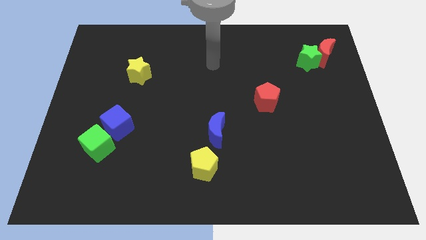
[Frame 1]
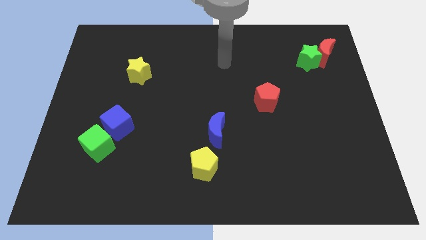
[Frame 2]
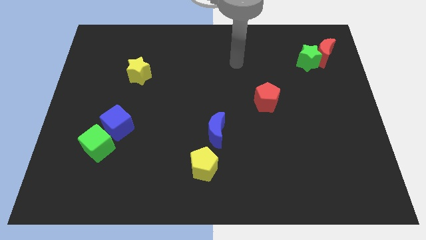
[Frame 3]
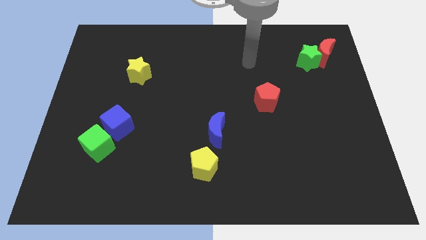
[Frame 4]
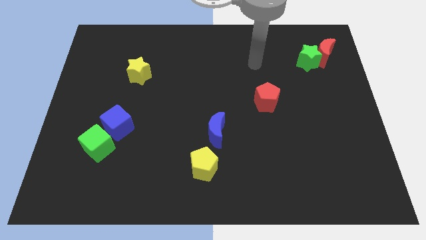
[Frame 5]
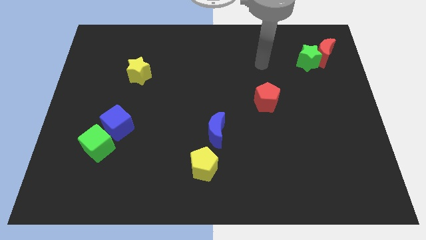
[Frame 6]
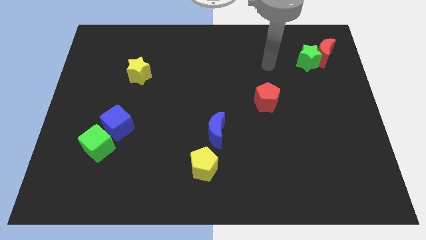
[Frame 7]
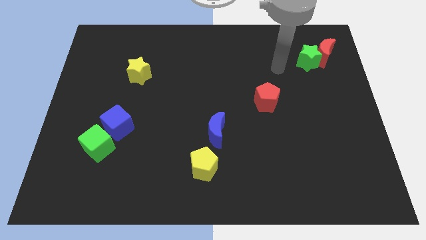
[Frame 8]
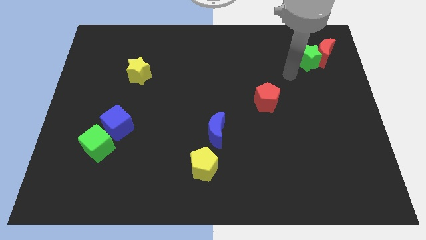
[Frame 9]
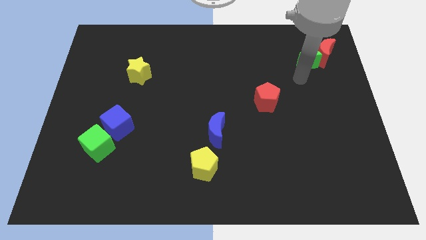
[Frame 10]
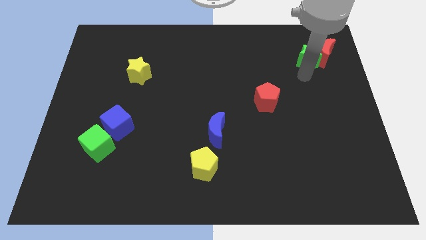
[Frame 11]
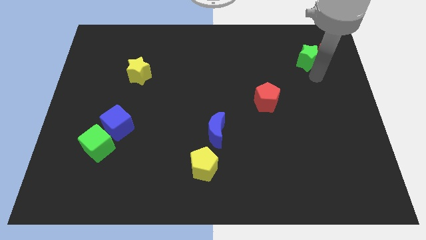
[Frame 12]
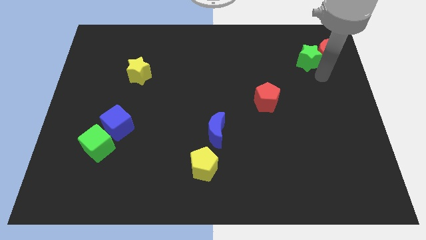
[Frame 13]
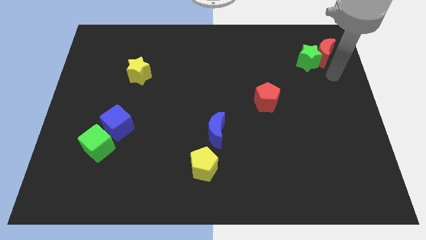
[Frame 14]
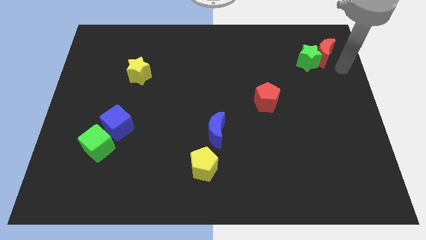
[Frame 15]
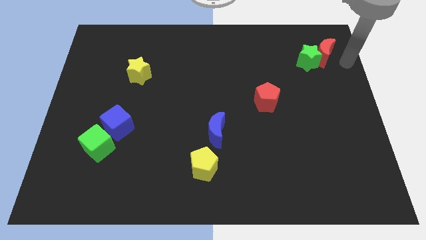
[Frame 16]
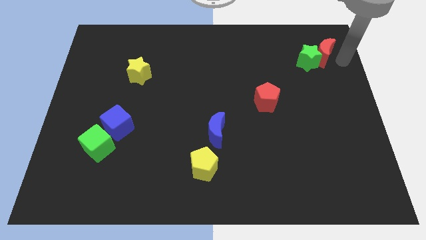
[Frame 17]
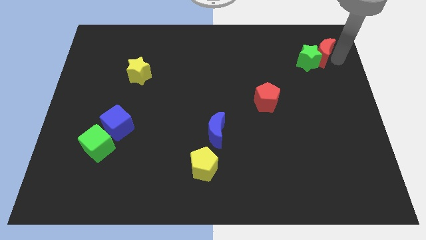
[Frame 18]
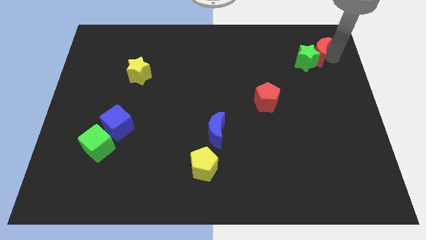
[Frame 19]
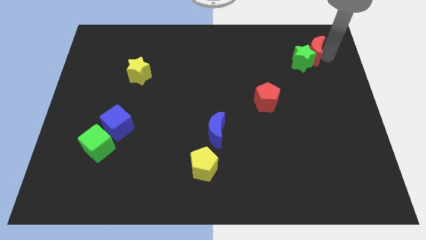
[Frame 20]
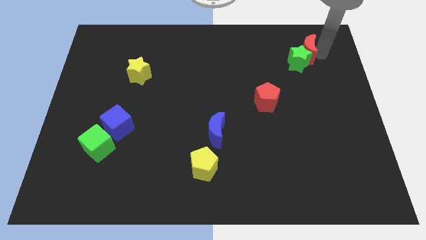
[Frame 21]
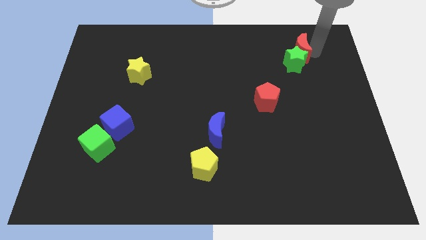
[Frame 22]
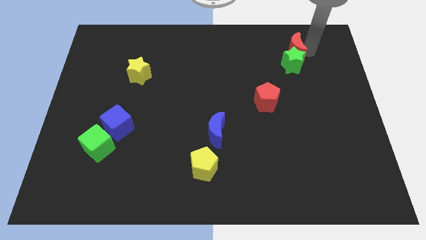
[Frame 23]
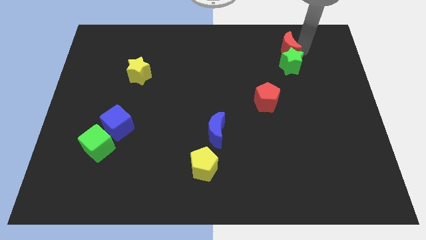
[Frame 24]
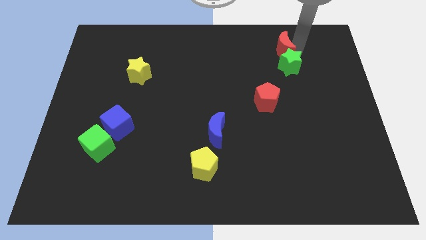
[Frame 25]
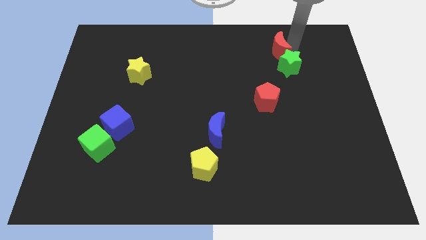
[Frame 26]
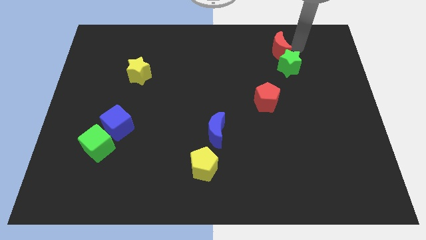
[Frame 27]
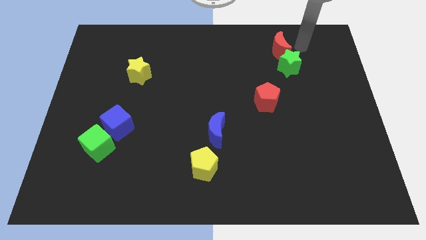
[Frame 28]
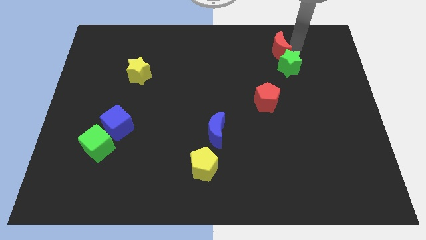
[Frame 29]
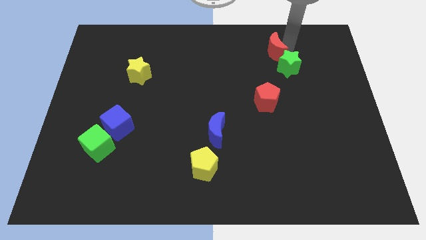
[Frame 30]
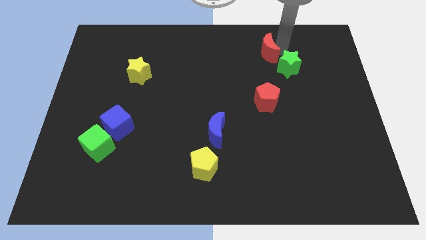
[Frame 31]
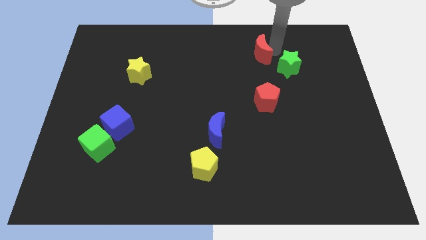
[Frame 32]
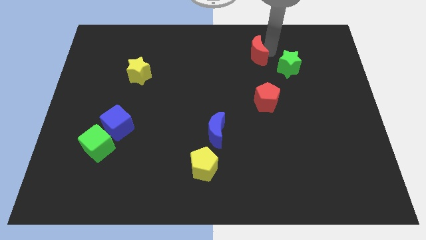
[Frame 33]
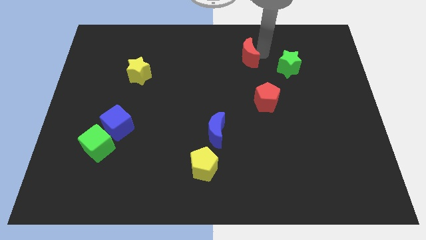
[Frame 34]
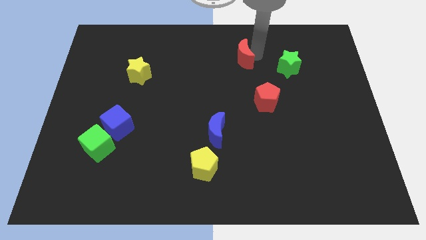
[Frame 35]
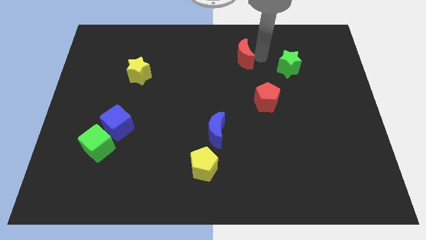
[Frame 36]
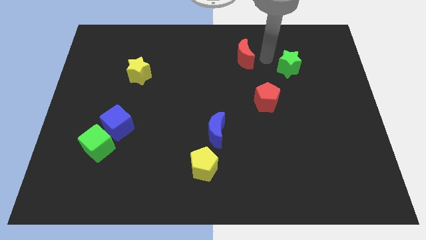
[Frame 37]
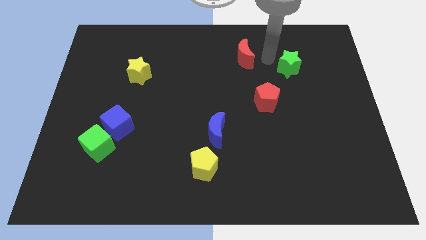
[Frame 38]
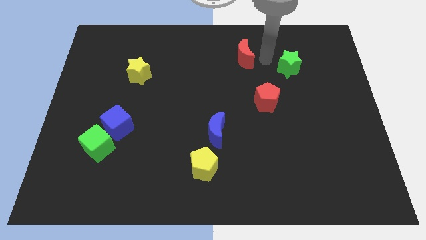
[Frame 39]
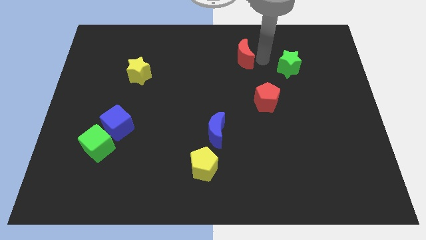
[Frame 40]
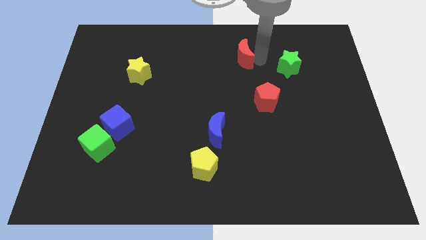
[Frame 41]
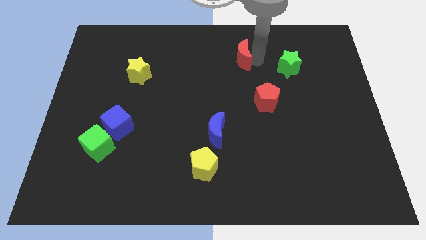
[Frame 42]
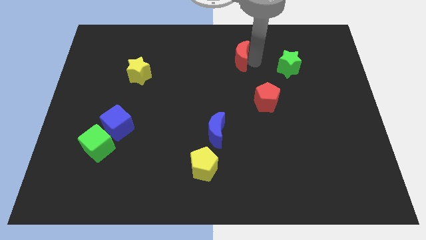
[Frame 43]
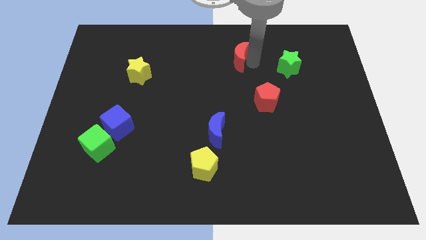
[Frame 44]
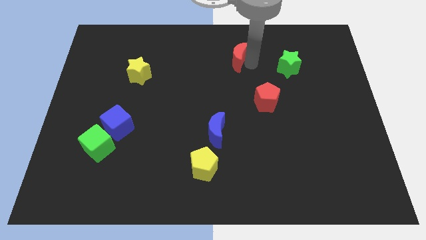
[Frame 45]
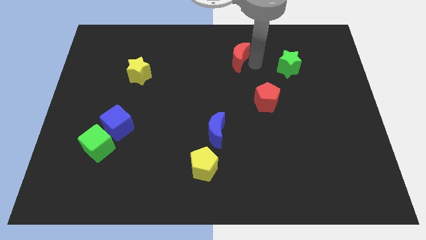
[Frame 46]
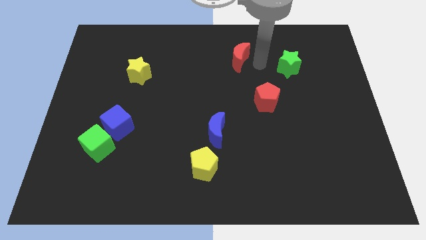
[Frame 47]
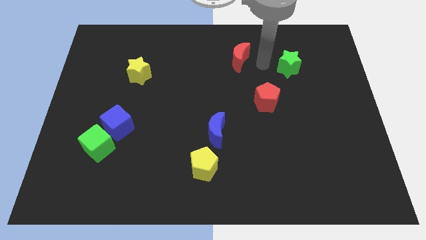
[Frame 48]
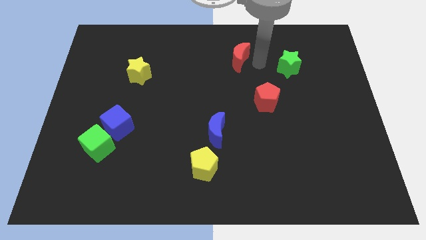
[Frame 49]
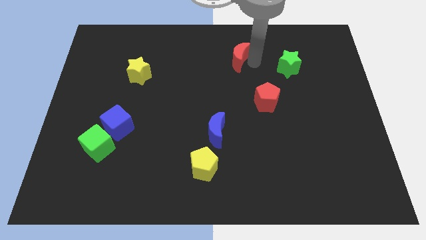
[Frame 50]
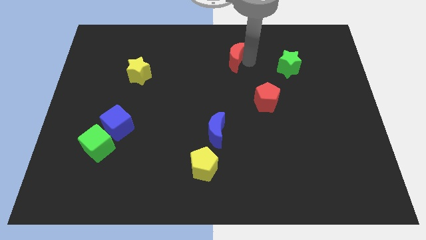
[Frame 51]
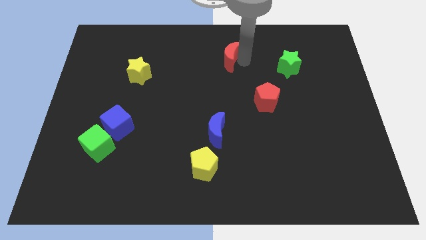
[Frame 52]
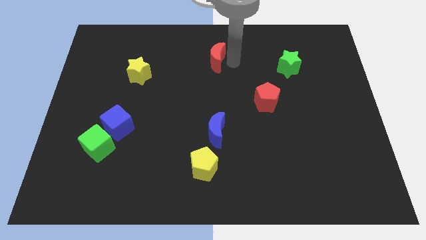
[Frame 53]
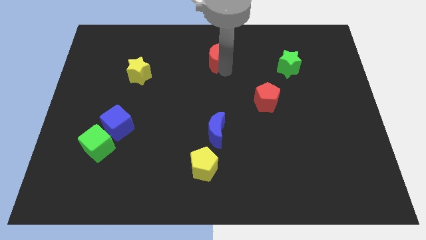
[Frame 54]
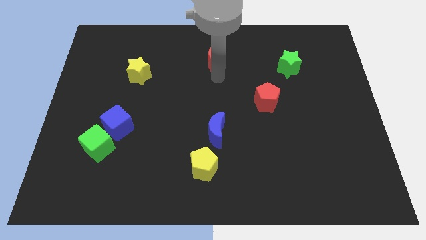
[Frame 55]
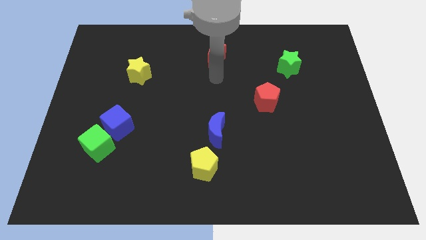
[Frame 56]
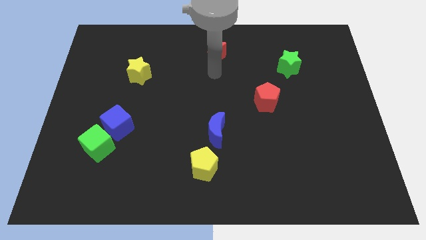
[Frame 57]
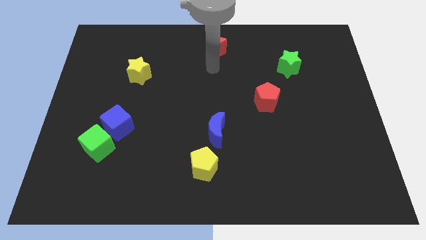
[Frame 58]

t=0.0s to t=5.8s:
push the red moon to the top
